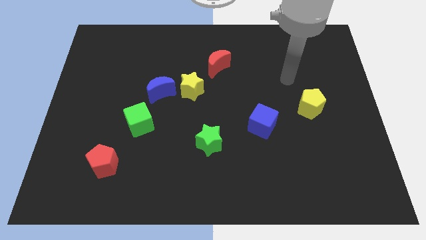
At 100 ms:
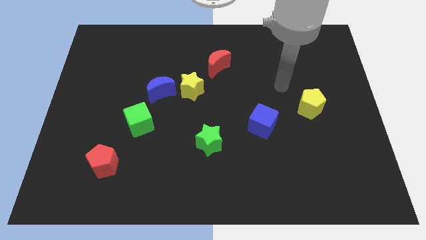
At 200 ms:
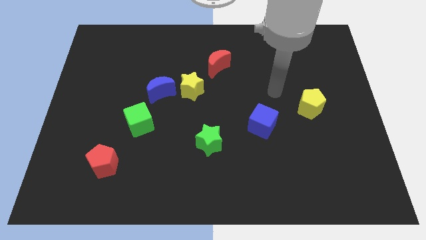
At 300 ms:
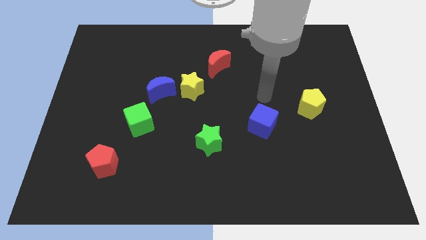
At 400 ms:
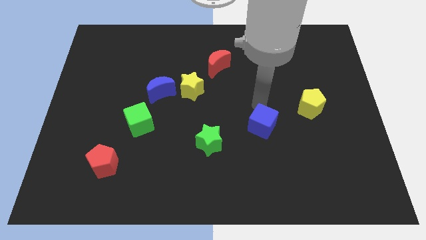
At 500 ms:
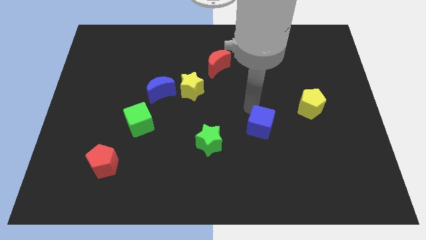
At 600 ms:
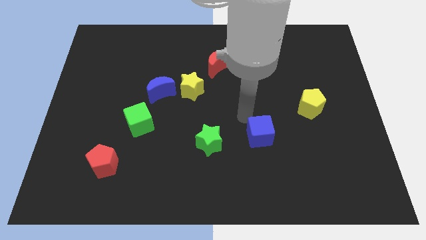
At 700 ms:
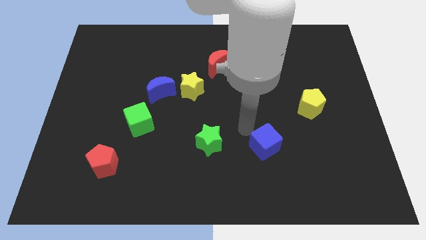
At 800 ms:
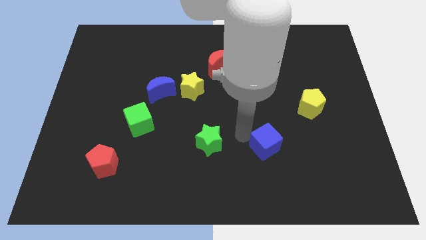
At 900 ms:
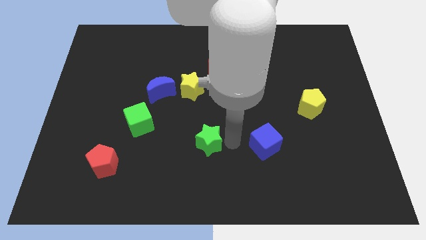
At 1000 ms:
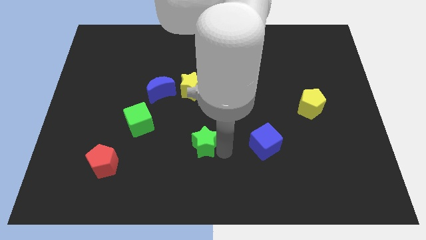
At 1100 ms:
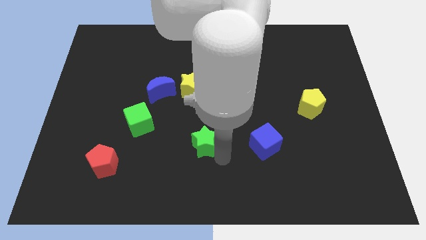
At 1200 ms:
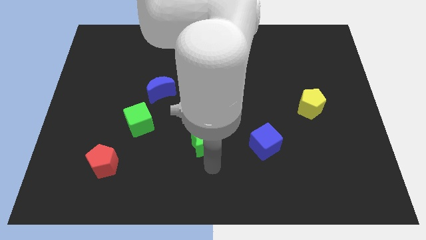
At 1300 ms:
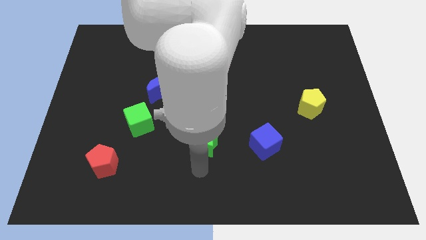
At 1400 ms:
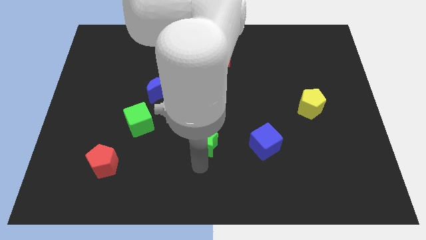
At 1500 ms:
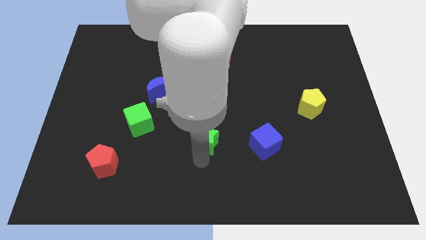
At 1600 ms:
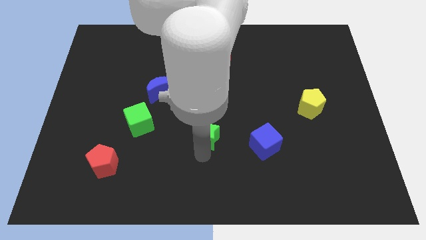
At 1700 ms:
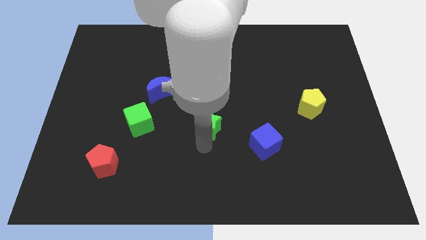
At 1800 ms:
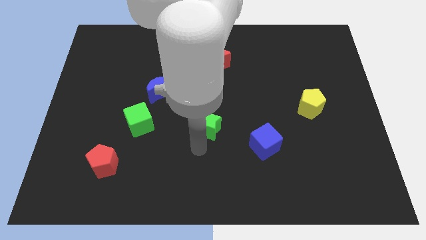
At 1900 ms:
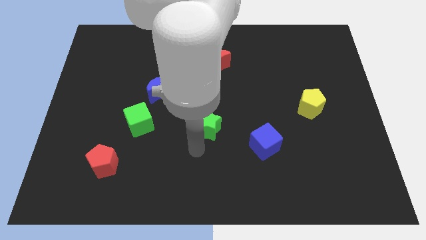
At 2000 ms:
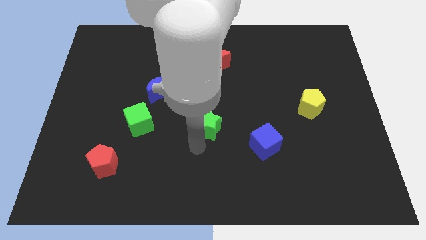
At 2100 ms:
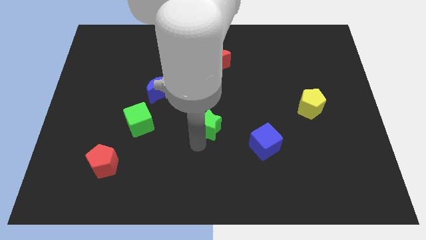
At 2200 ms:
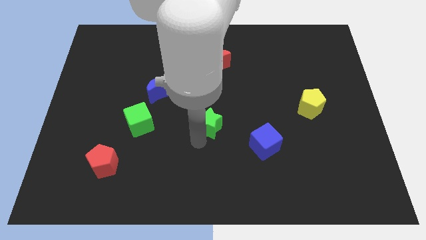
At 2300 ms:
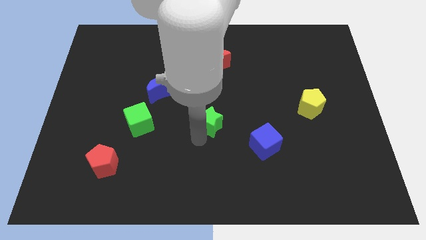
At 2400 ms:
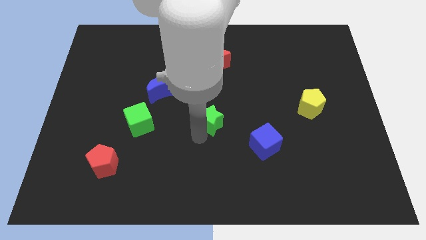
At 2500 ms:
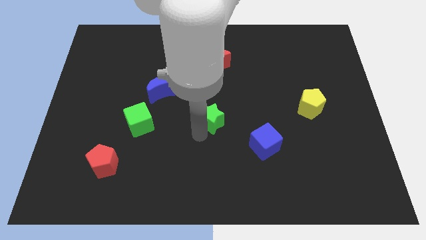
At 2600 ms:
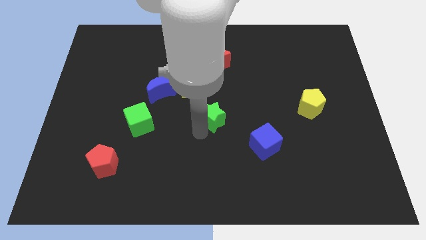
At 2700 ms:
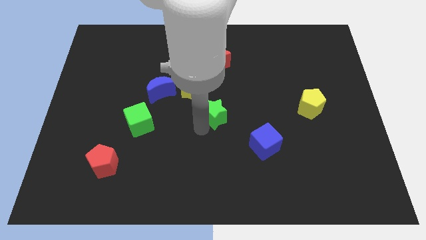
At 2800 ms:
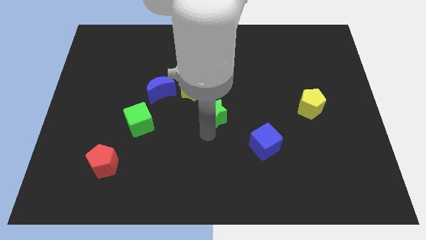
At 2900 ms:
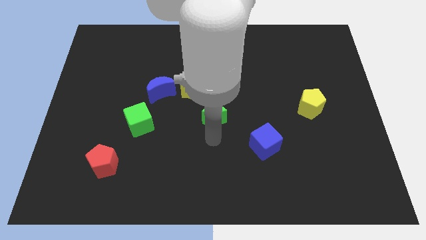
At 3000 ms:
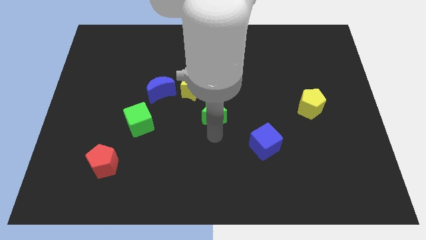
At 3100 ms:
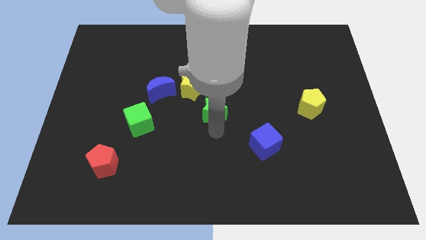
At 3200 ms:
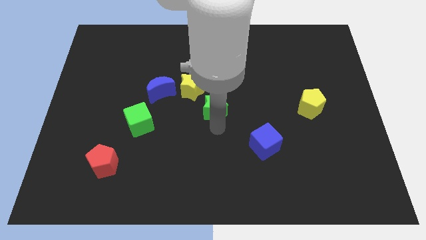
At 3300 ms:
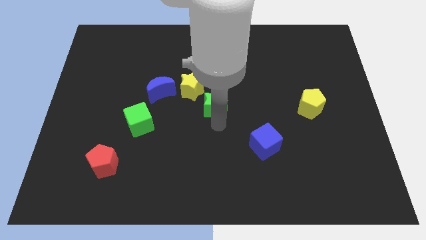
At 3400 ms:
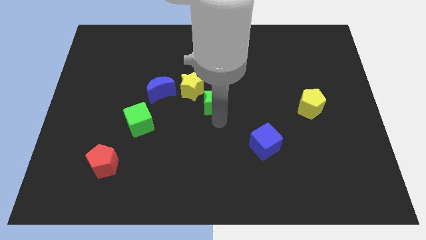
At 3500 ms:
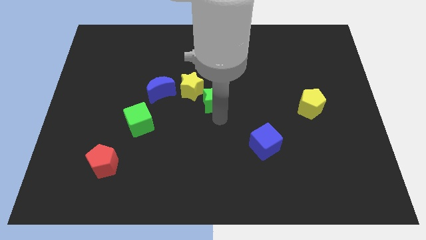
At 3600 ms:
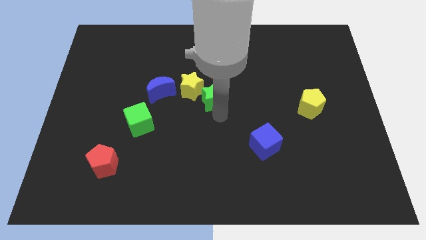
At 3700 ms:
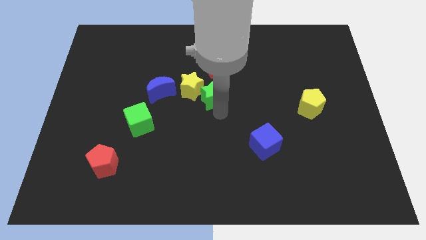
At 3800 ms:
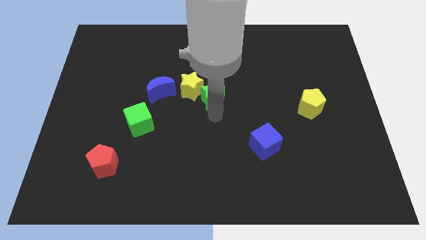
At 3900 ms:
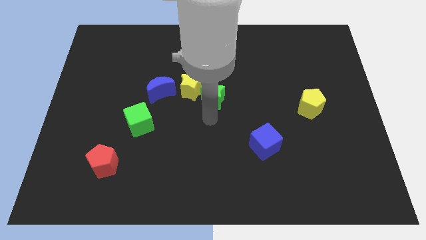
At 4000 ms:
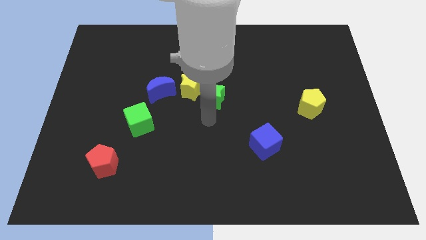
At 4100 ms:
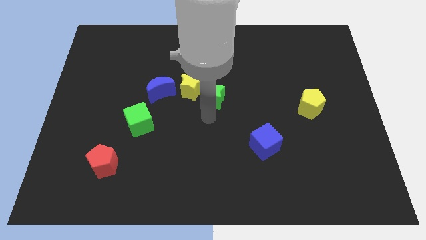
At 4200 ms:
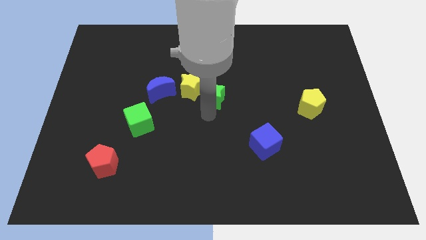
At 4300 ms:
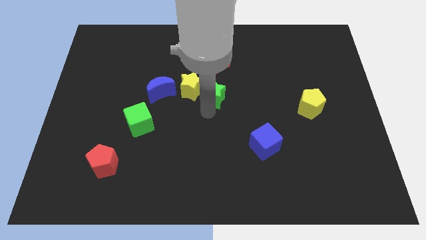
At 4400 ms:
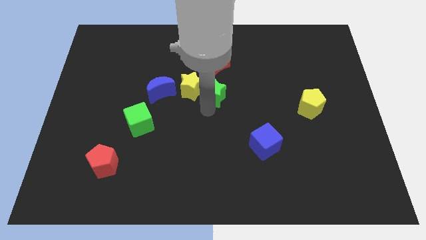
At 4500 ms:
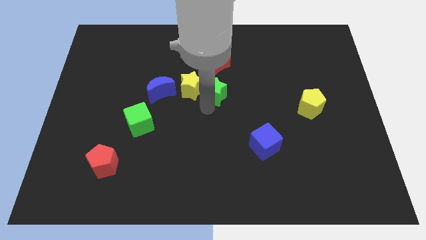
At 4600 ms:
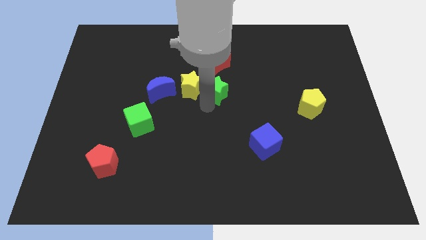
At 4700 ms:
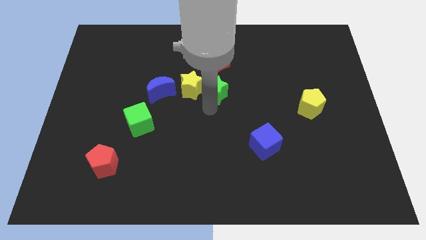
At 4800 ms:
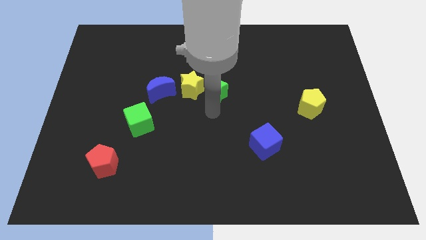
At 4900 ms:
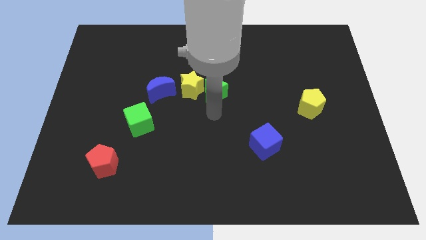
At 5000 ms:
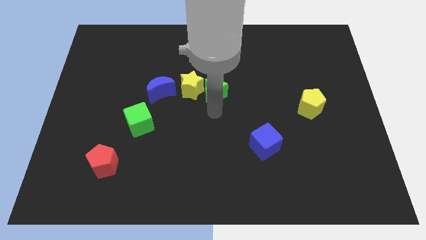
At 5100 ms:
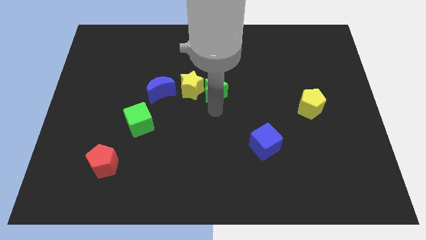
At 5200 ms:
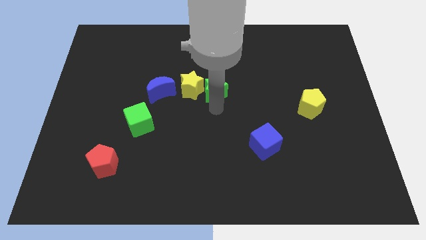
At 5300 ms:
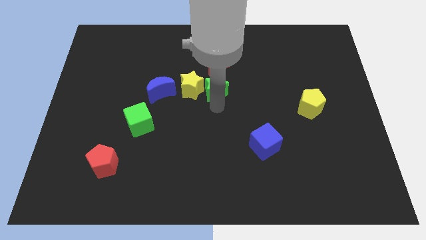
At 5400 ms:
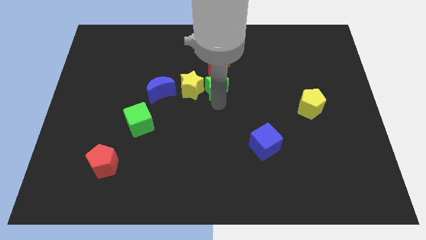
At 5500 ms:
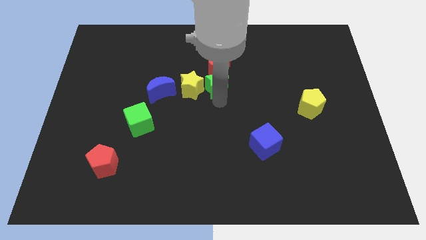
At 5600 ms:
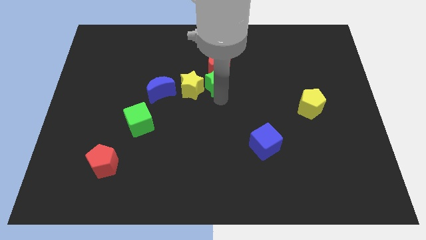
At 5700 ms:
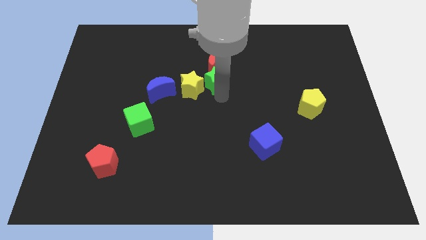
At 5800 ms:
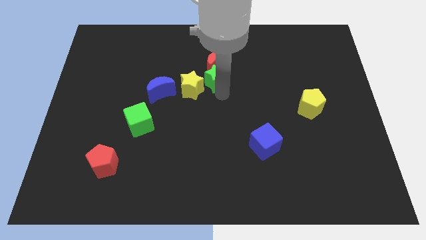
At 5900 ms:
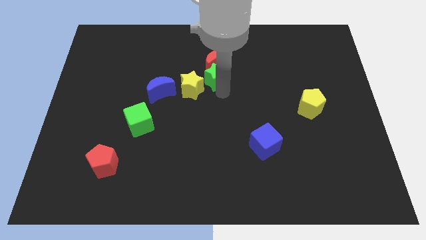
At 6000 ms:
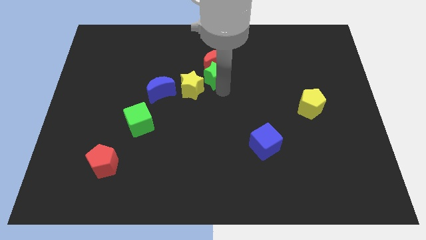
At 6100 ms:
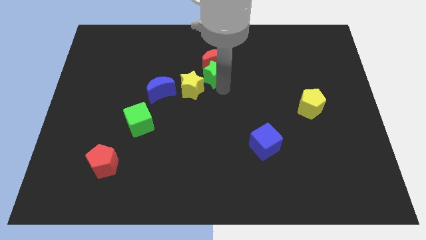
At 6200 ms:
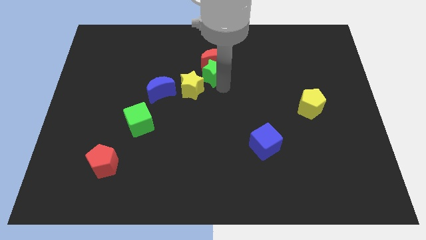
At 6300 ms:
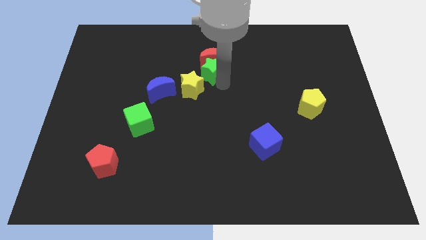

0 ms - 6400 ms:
put the green star above the yellow star

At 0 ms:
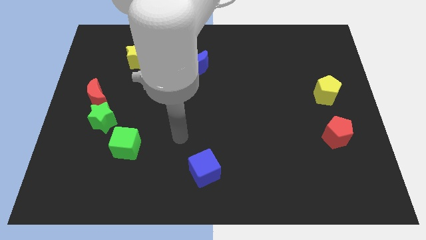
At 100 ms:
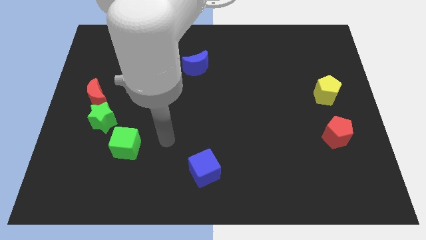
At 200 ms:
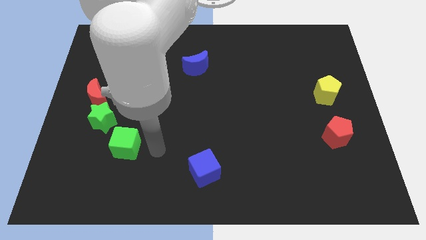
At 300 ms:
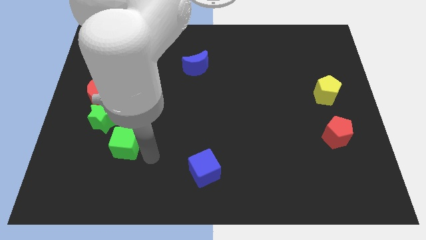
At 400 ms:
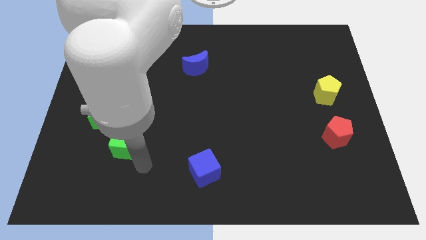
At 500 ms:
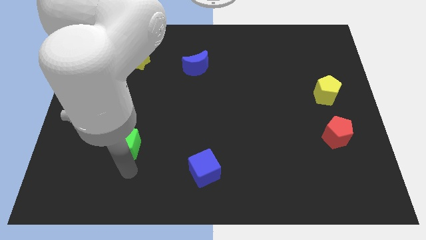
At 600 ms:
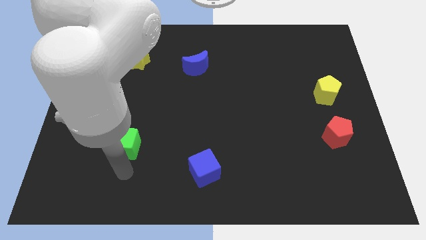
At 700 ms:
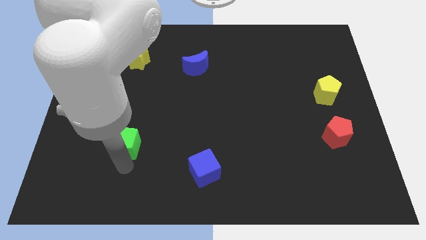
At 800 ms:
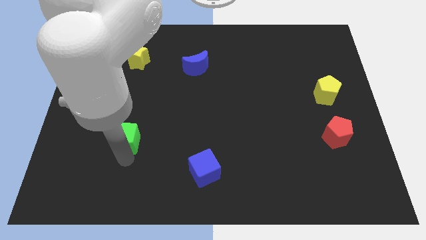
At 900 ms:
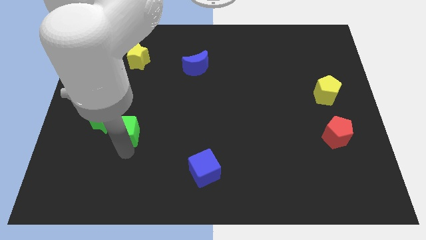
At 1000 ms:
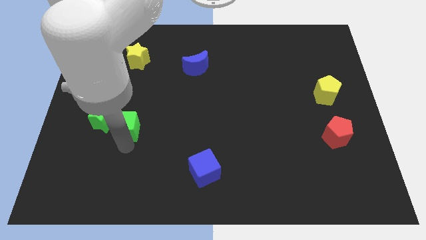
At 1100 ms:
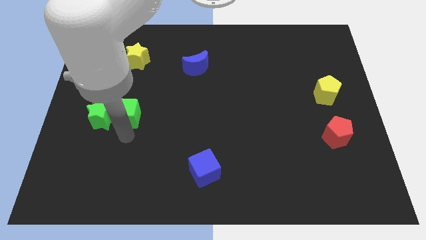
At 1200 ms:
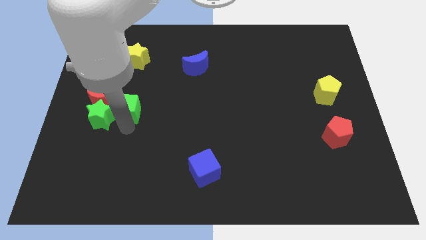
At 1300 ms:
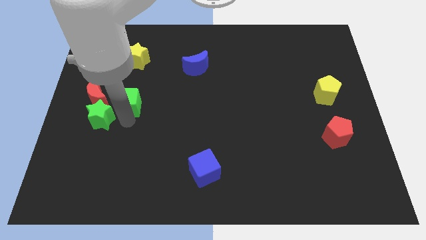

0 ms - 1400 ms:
push the green cube below the yellow star
